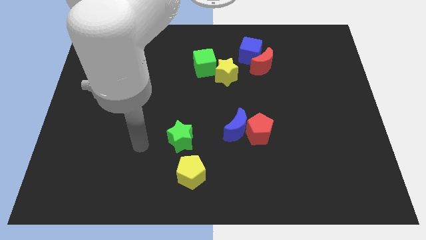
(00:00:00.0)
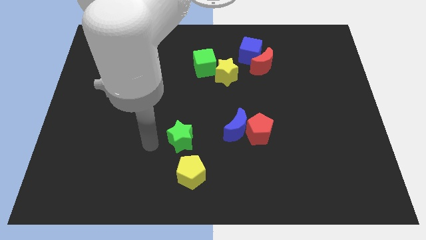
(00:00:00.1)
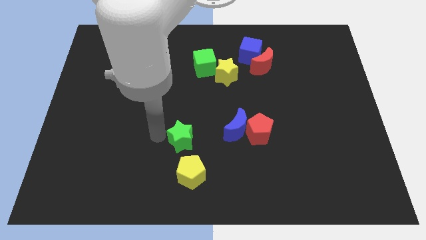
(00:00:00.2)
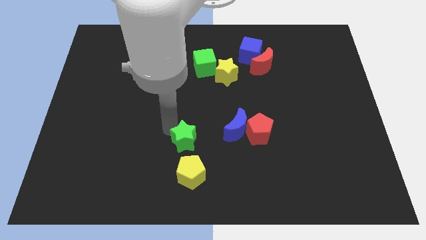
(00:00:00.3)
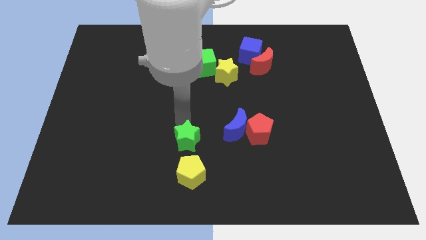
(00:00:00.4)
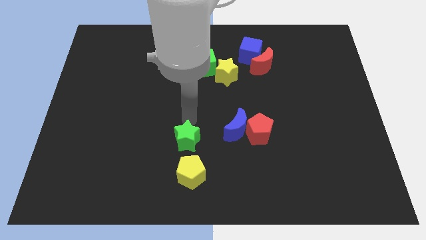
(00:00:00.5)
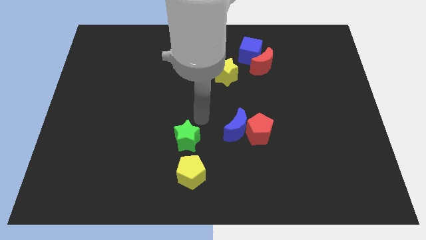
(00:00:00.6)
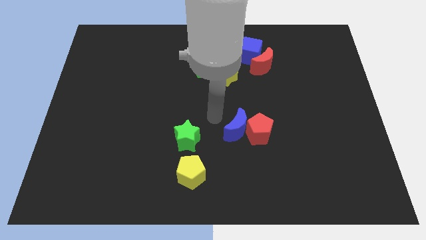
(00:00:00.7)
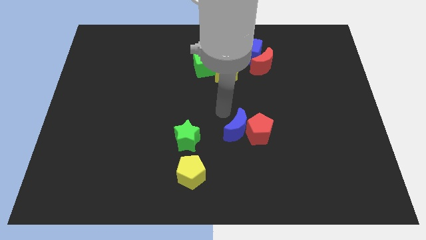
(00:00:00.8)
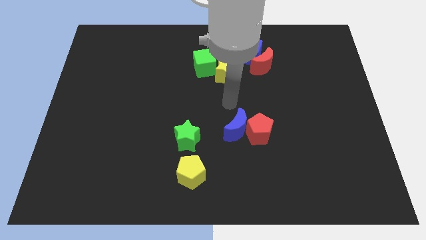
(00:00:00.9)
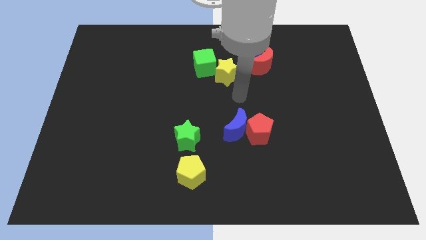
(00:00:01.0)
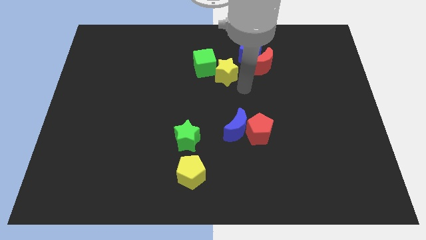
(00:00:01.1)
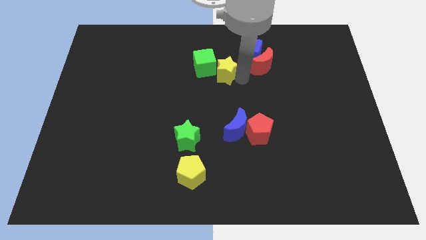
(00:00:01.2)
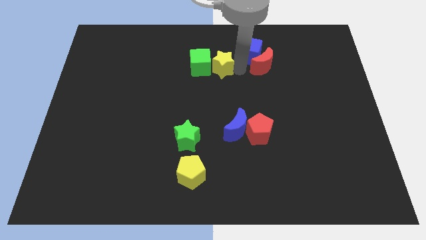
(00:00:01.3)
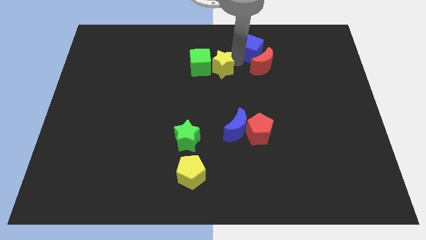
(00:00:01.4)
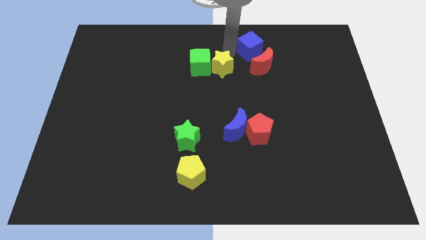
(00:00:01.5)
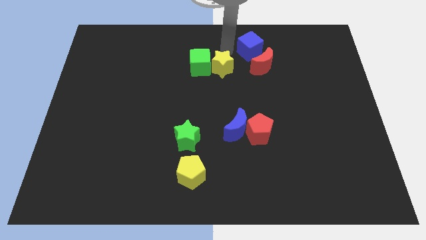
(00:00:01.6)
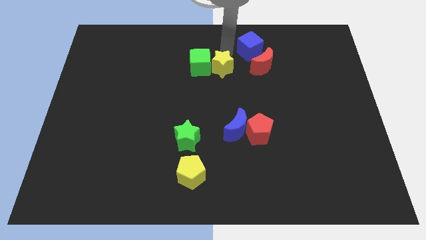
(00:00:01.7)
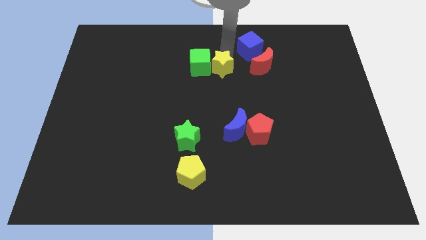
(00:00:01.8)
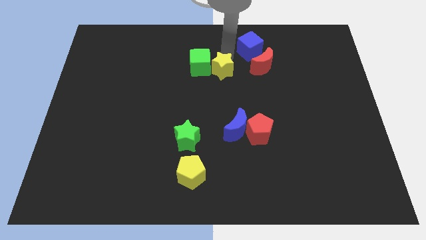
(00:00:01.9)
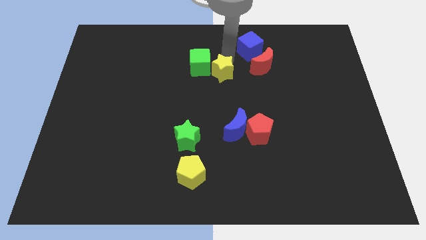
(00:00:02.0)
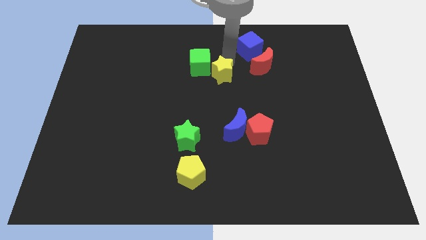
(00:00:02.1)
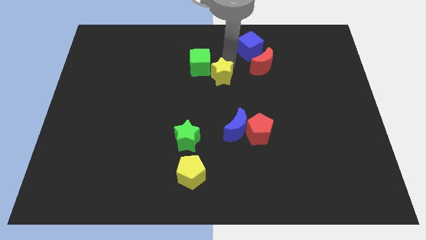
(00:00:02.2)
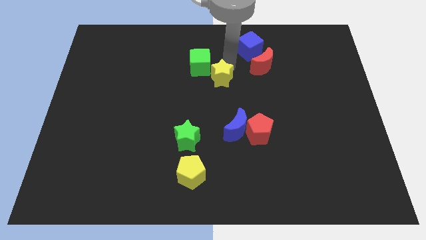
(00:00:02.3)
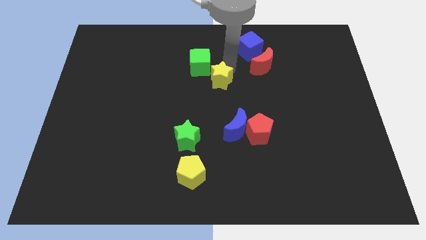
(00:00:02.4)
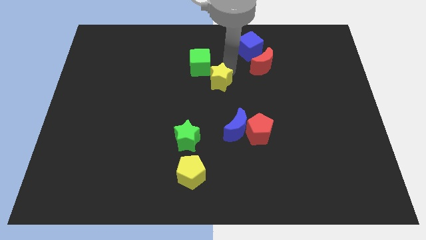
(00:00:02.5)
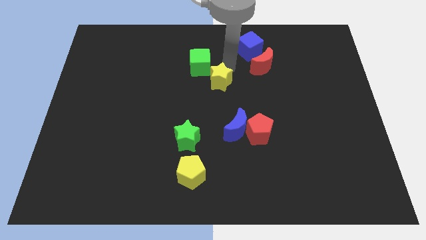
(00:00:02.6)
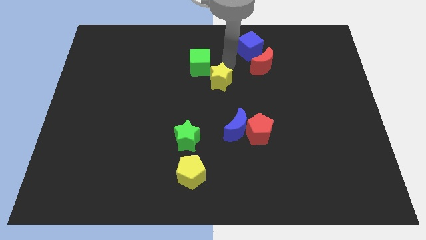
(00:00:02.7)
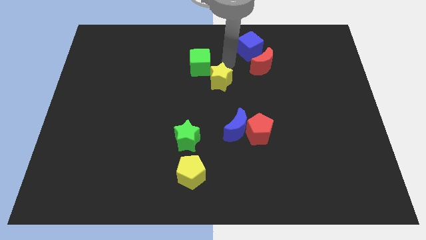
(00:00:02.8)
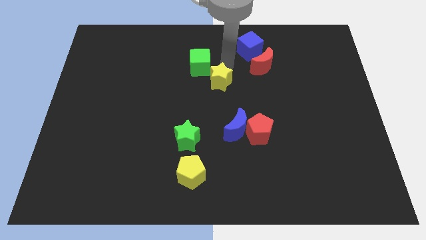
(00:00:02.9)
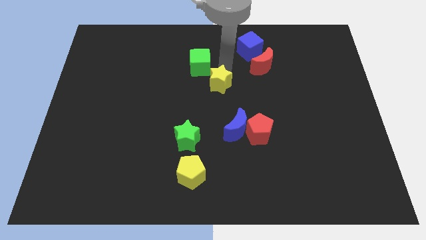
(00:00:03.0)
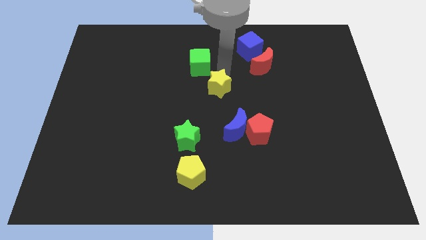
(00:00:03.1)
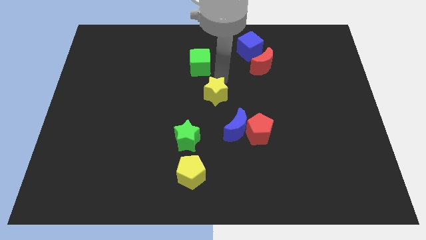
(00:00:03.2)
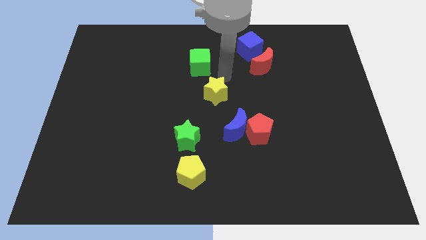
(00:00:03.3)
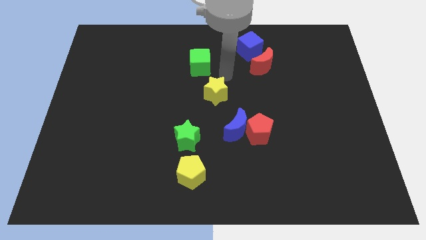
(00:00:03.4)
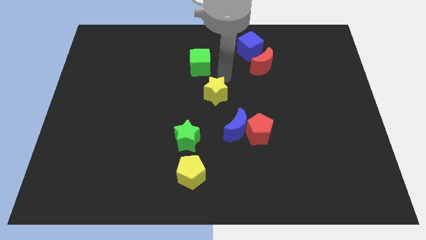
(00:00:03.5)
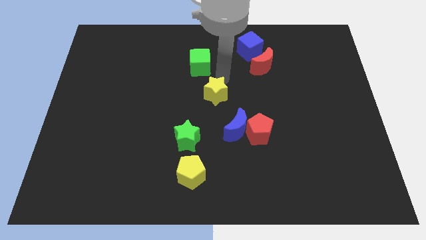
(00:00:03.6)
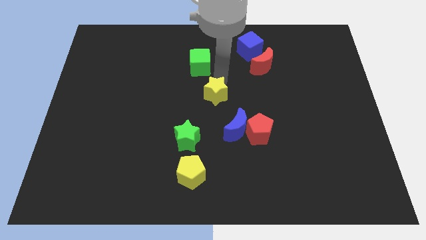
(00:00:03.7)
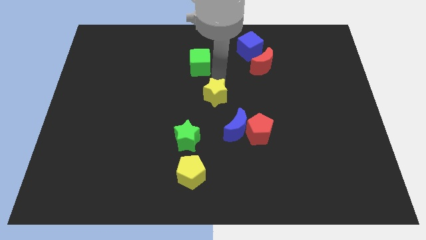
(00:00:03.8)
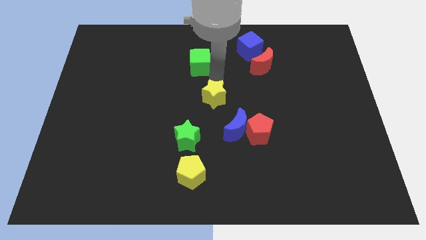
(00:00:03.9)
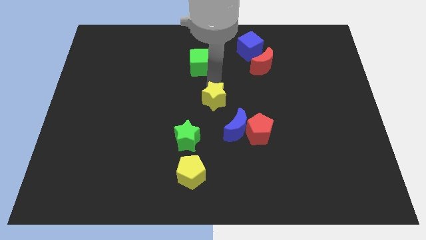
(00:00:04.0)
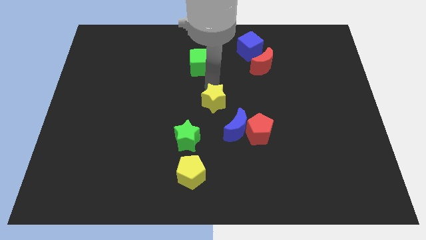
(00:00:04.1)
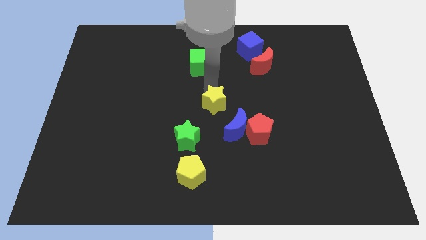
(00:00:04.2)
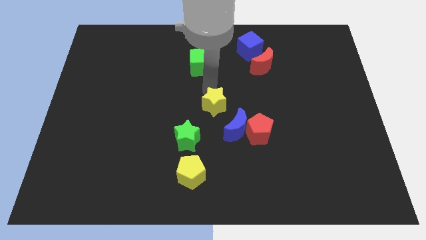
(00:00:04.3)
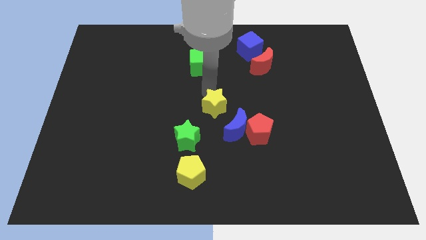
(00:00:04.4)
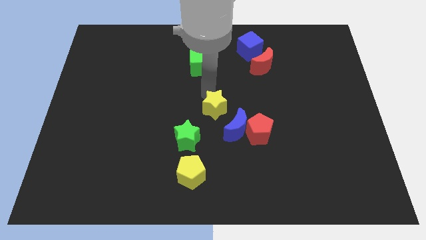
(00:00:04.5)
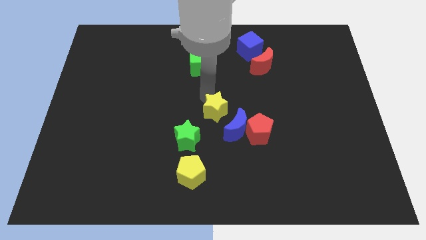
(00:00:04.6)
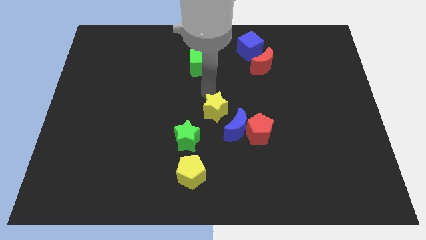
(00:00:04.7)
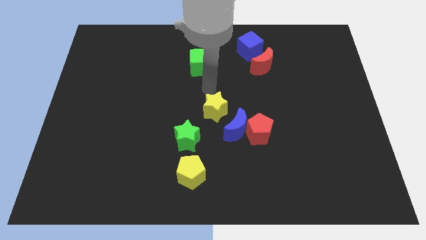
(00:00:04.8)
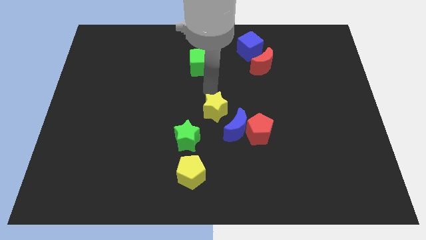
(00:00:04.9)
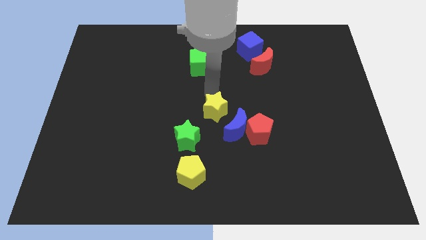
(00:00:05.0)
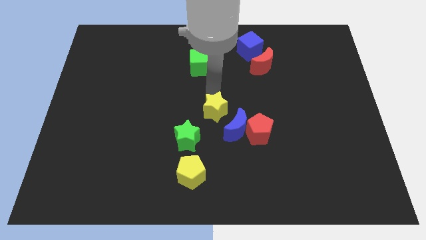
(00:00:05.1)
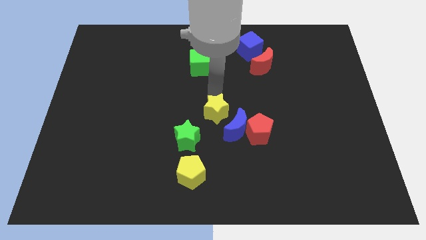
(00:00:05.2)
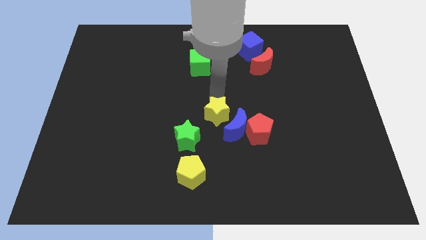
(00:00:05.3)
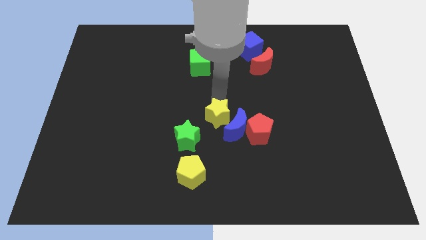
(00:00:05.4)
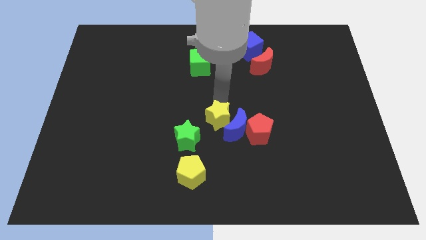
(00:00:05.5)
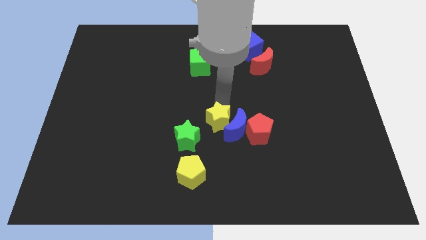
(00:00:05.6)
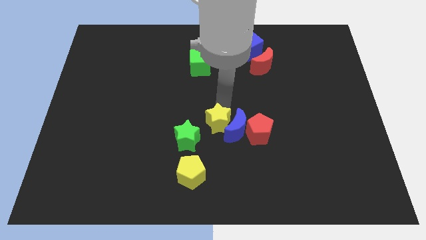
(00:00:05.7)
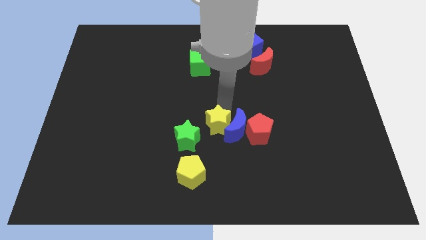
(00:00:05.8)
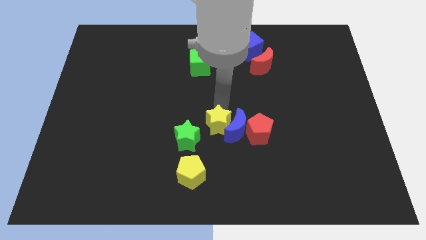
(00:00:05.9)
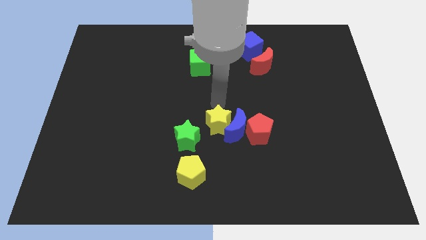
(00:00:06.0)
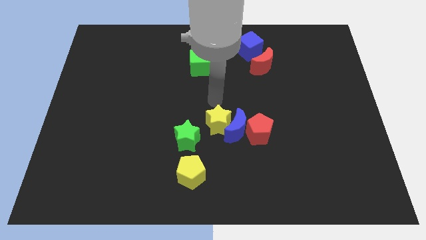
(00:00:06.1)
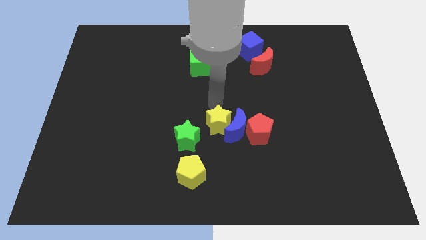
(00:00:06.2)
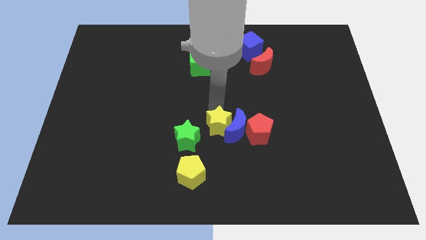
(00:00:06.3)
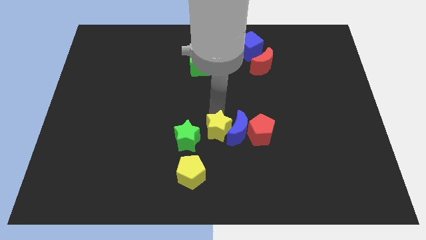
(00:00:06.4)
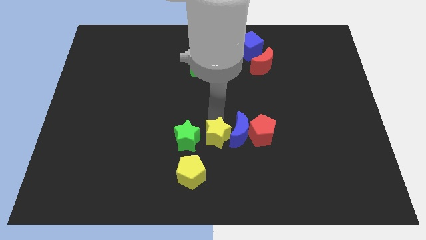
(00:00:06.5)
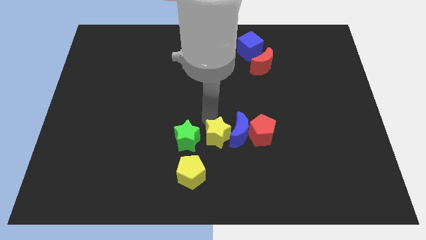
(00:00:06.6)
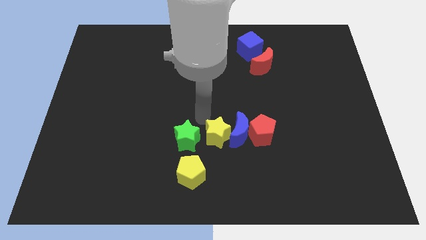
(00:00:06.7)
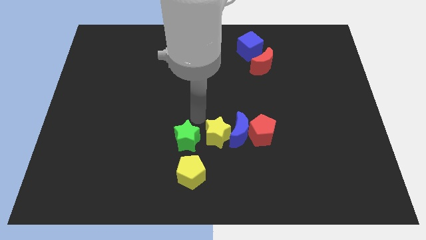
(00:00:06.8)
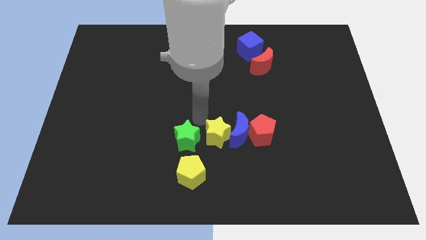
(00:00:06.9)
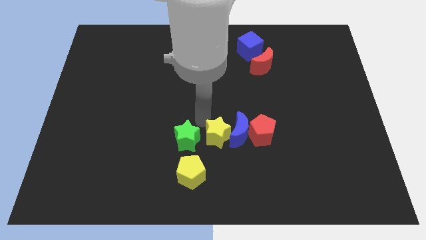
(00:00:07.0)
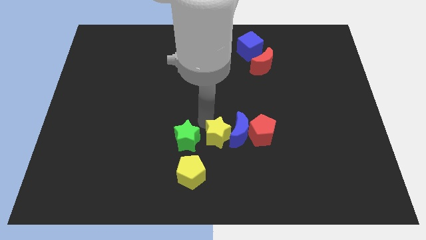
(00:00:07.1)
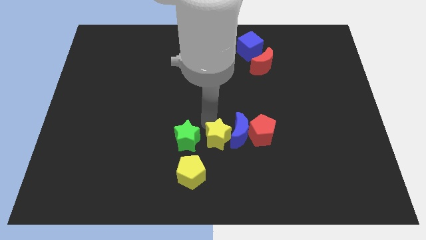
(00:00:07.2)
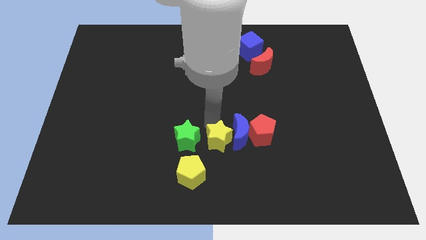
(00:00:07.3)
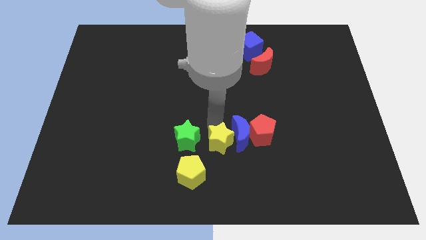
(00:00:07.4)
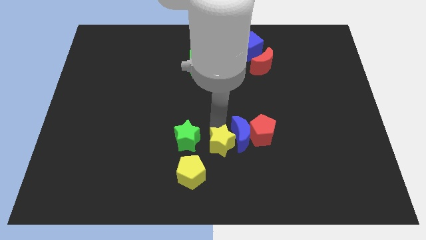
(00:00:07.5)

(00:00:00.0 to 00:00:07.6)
push the yellow star diagonally down and to the left of the red pentagon
